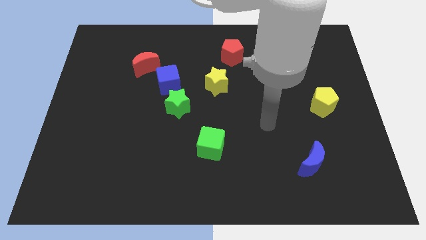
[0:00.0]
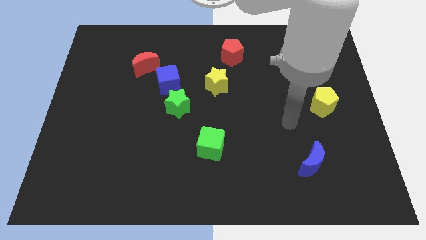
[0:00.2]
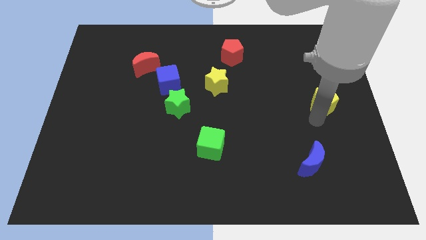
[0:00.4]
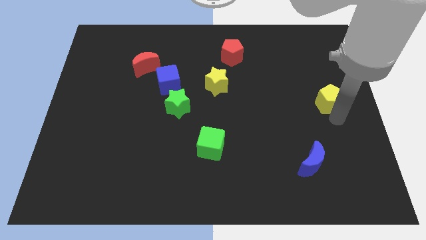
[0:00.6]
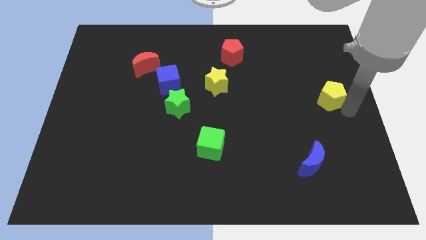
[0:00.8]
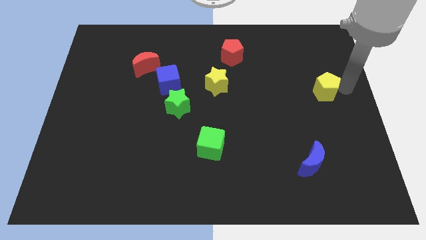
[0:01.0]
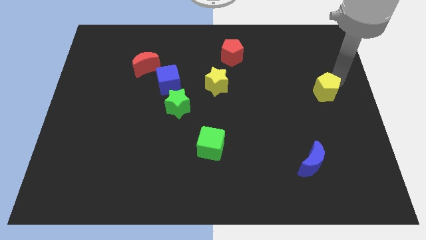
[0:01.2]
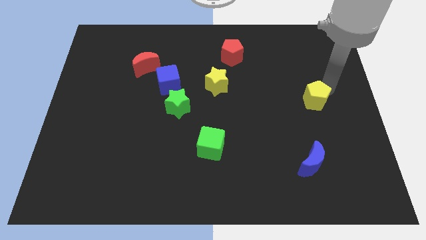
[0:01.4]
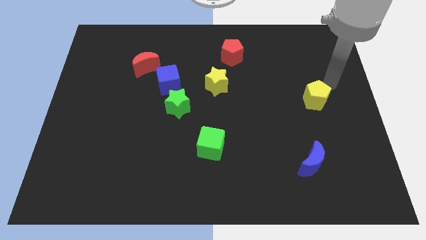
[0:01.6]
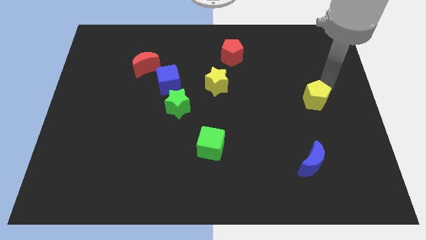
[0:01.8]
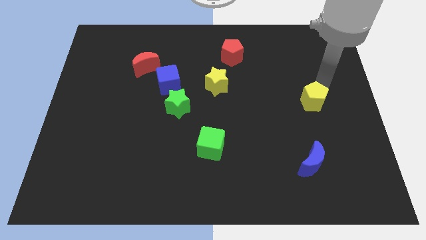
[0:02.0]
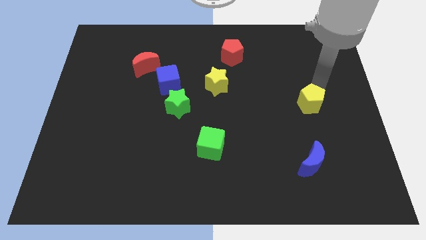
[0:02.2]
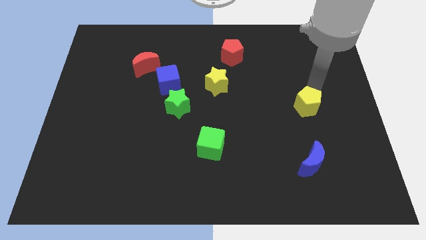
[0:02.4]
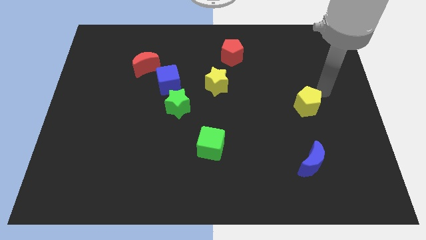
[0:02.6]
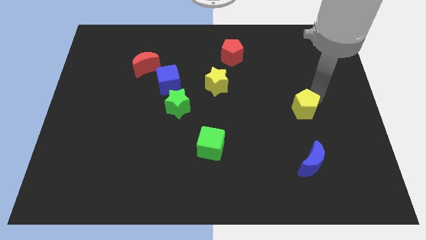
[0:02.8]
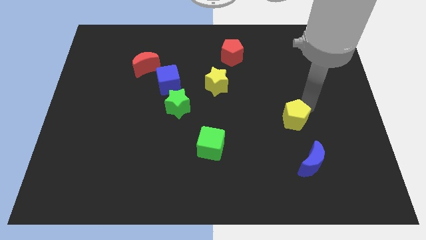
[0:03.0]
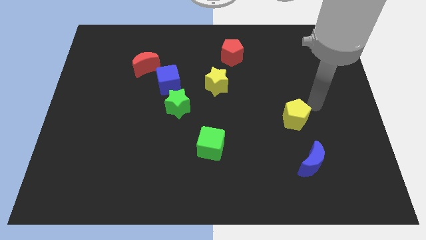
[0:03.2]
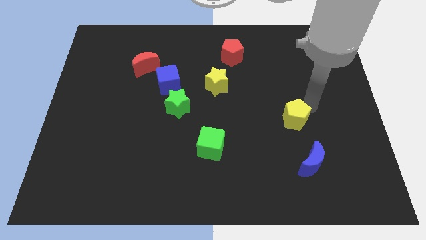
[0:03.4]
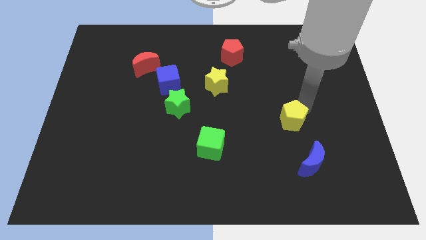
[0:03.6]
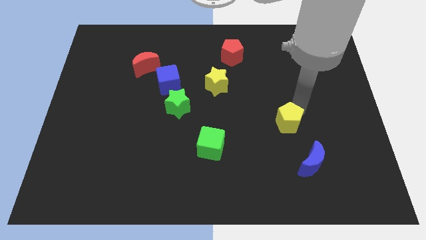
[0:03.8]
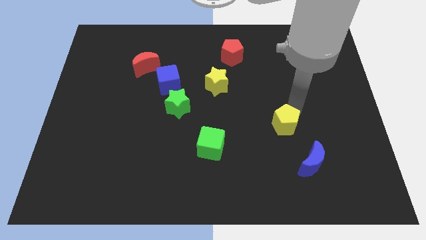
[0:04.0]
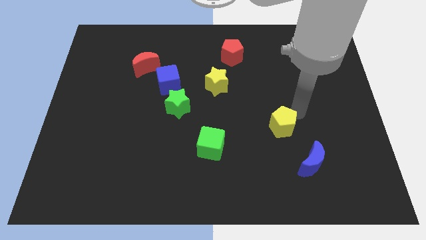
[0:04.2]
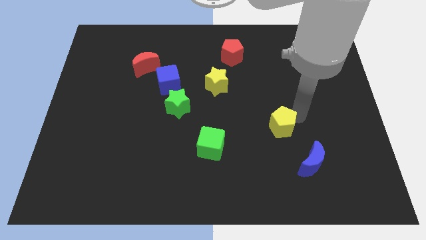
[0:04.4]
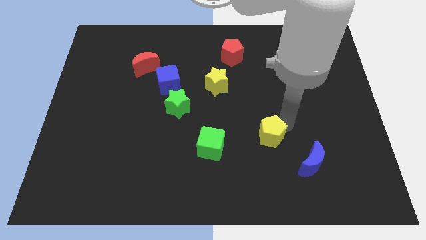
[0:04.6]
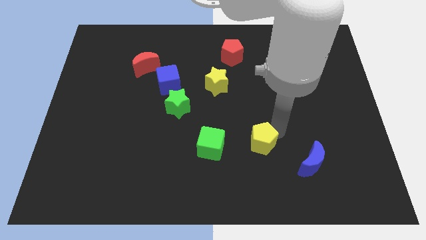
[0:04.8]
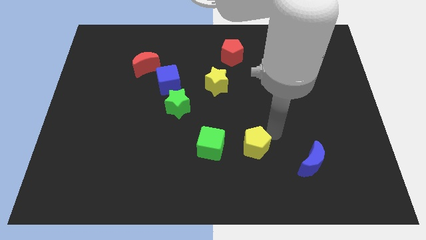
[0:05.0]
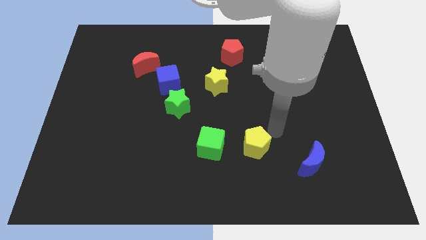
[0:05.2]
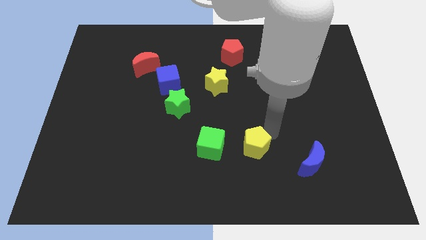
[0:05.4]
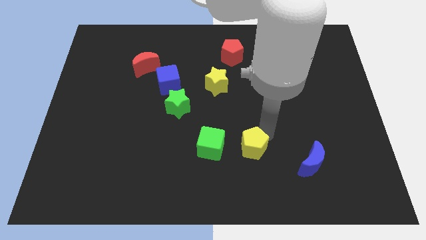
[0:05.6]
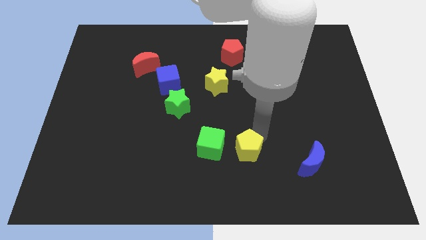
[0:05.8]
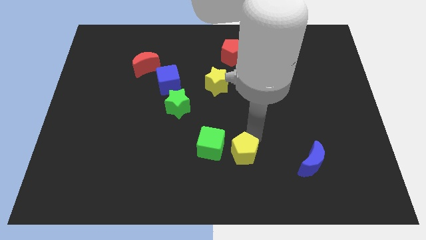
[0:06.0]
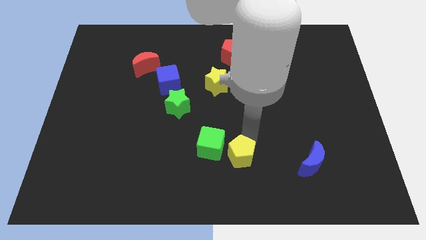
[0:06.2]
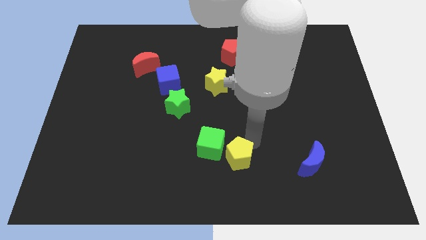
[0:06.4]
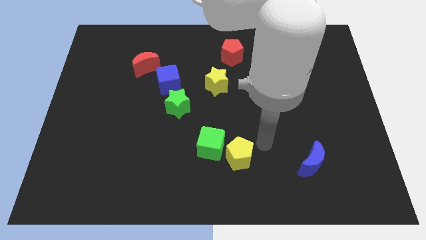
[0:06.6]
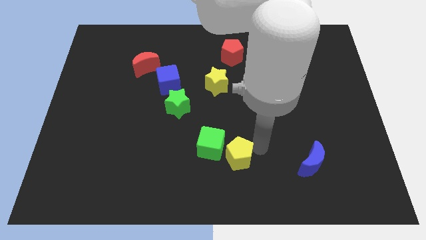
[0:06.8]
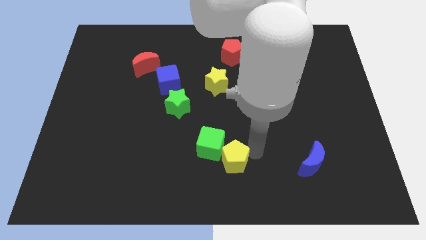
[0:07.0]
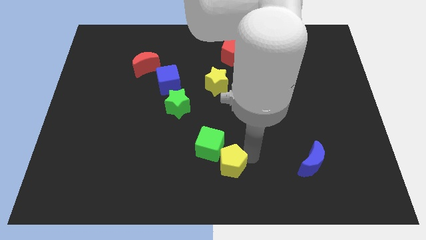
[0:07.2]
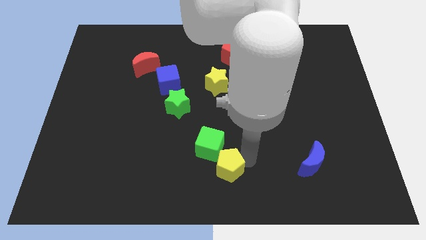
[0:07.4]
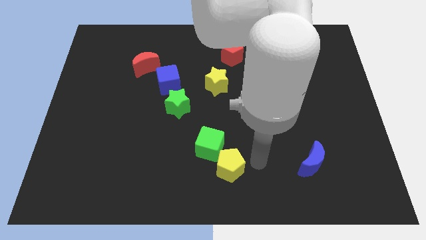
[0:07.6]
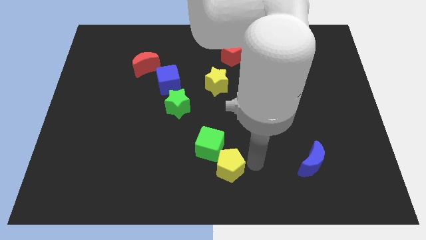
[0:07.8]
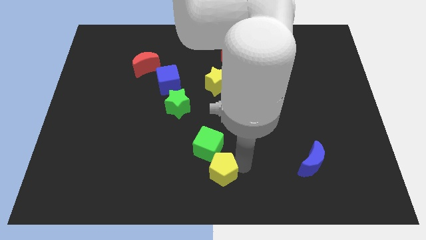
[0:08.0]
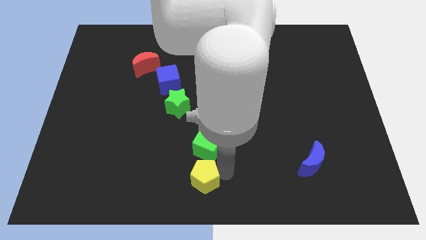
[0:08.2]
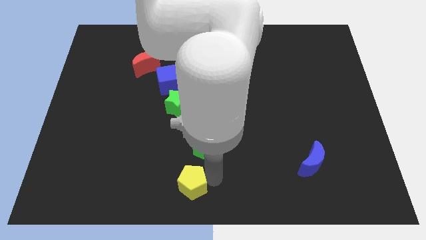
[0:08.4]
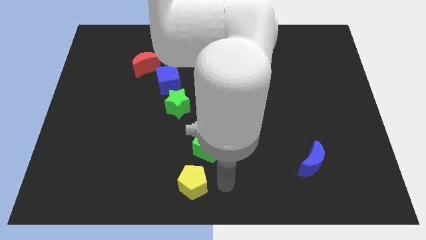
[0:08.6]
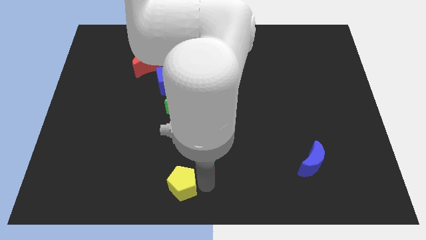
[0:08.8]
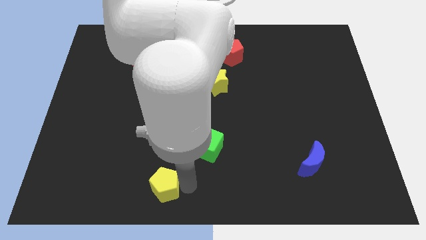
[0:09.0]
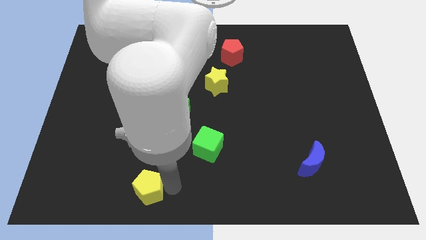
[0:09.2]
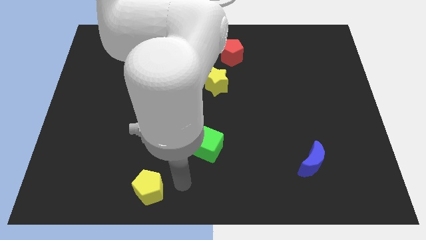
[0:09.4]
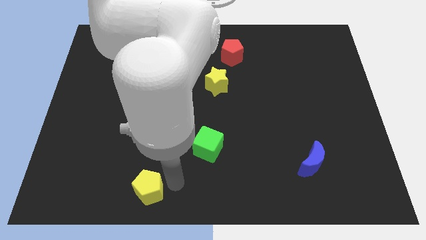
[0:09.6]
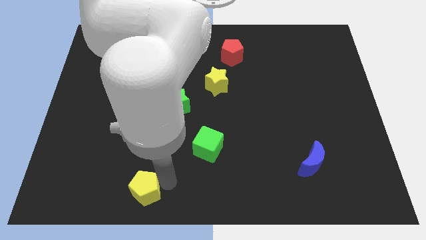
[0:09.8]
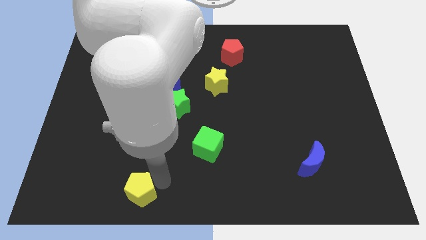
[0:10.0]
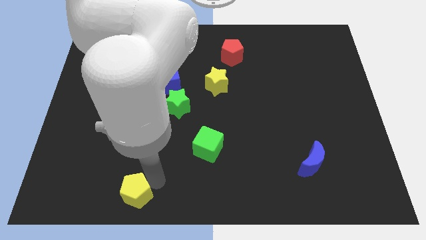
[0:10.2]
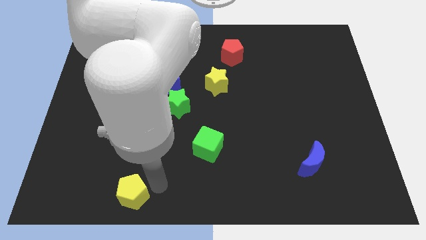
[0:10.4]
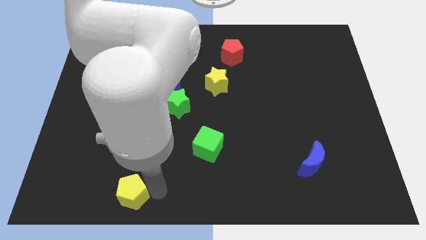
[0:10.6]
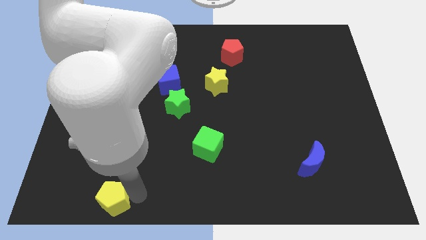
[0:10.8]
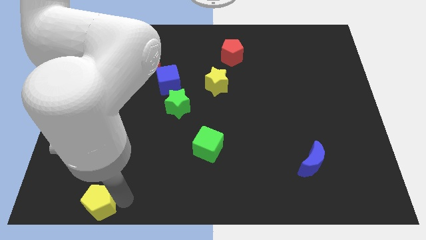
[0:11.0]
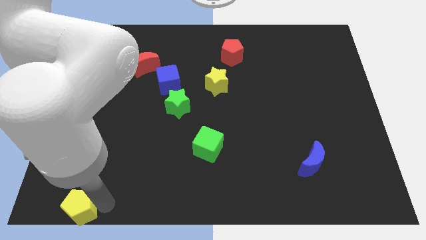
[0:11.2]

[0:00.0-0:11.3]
put the yellow pentagon to the lower left corner

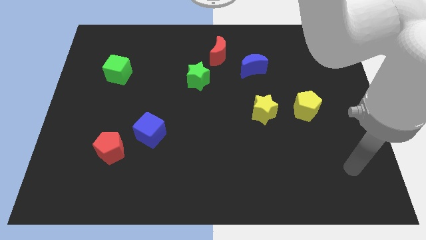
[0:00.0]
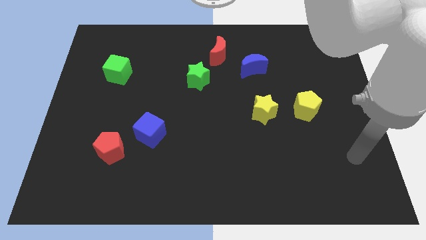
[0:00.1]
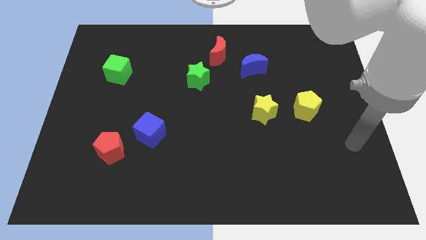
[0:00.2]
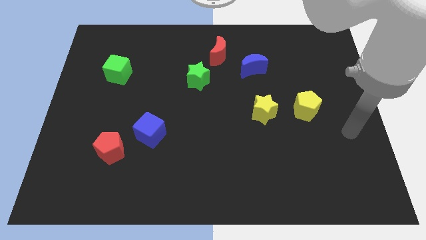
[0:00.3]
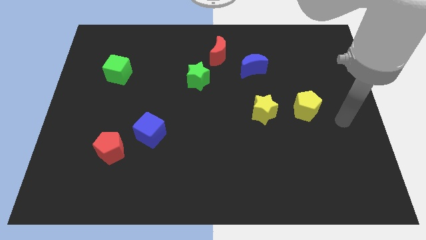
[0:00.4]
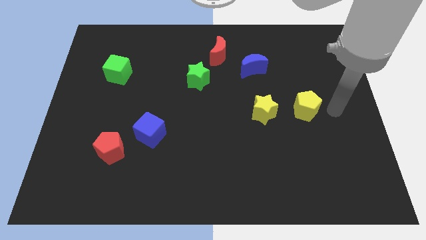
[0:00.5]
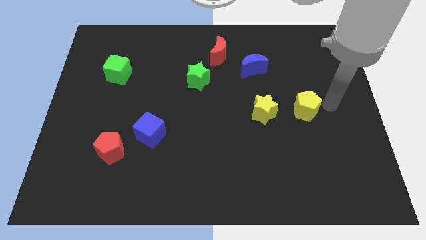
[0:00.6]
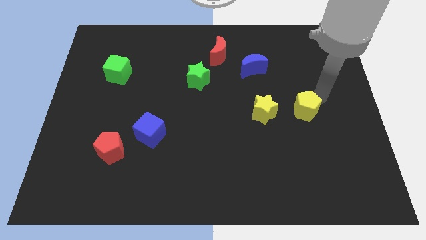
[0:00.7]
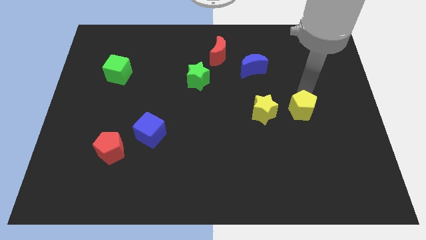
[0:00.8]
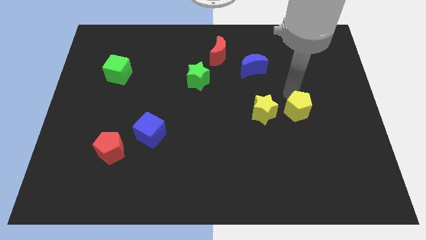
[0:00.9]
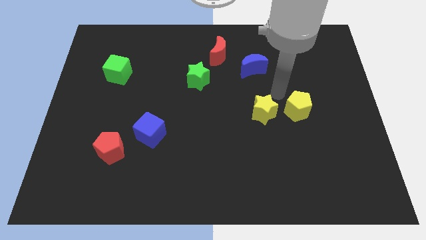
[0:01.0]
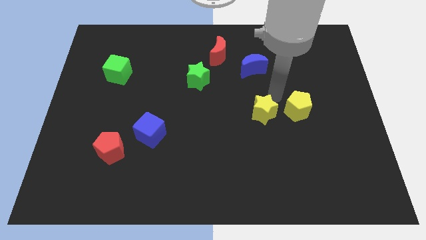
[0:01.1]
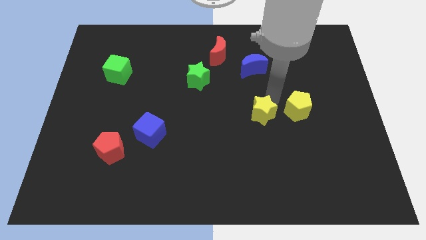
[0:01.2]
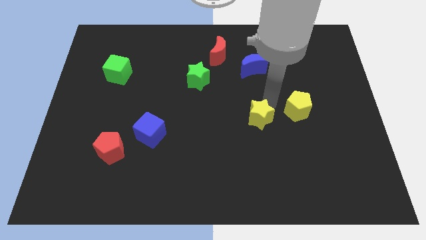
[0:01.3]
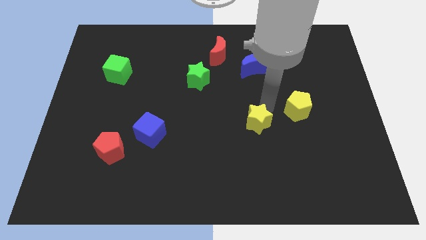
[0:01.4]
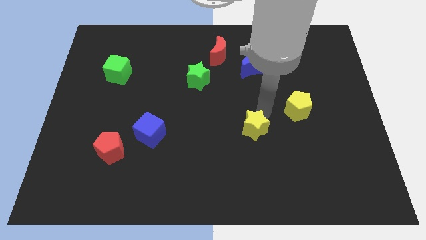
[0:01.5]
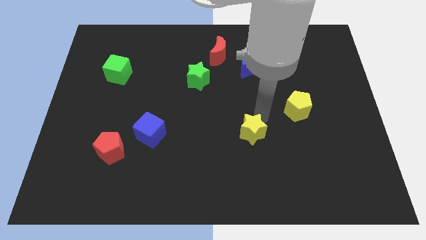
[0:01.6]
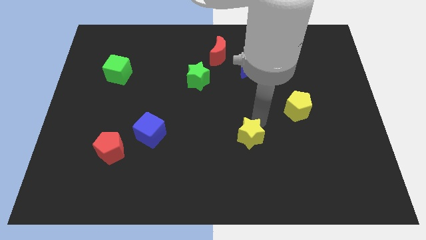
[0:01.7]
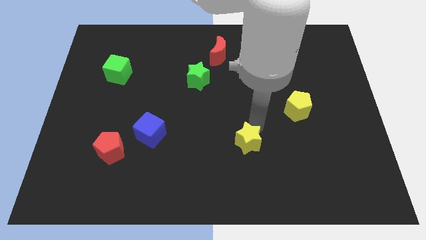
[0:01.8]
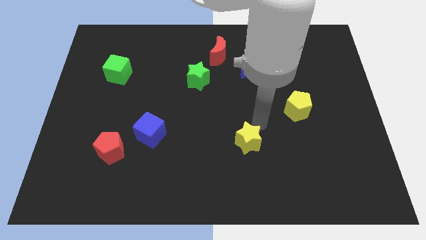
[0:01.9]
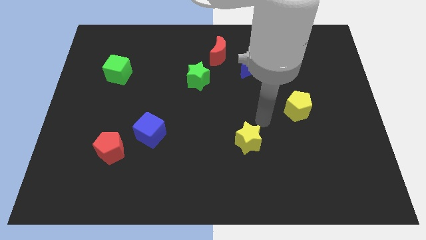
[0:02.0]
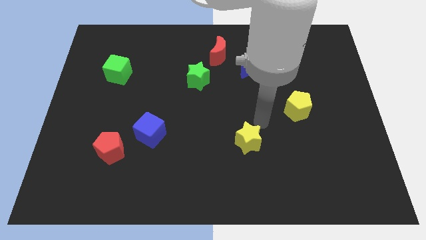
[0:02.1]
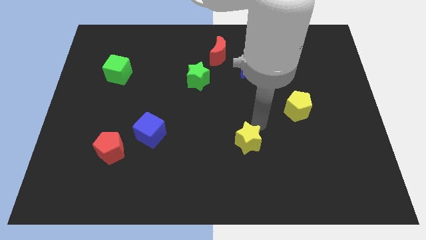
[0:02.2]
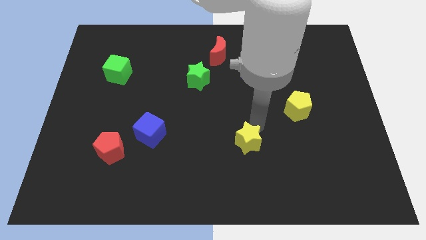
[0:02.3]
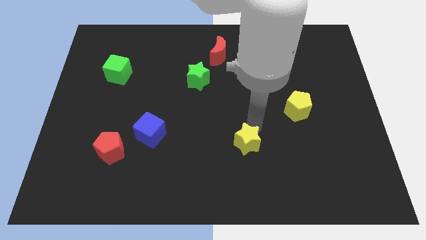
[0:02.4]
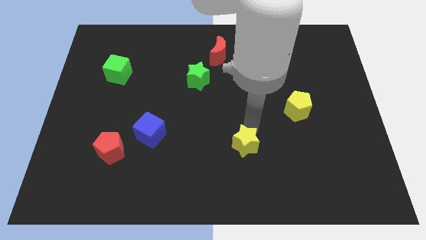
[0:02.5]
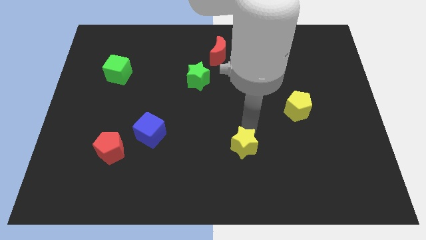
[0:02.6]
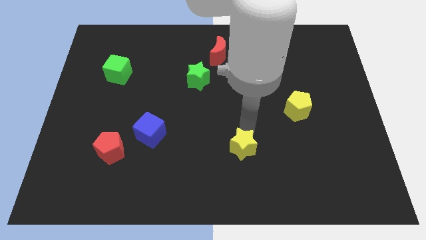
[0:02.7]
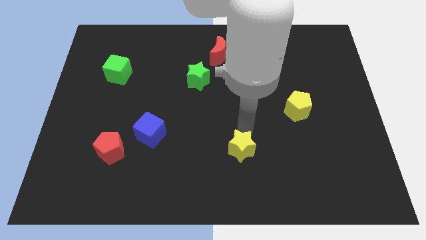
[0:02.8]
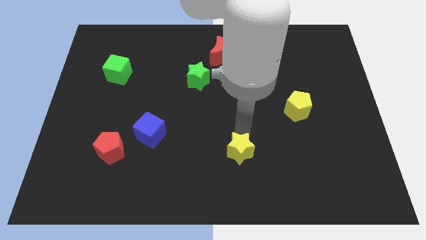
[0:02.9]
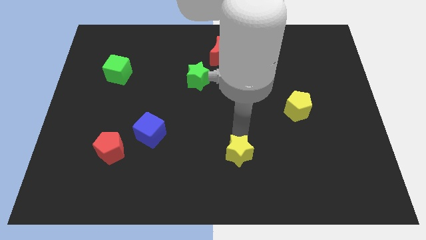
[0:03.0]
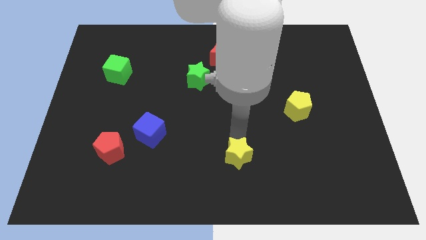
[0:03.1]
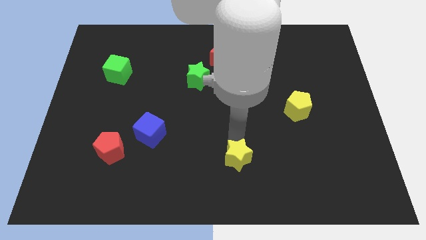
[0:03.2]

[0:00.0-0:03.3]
push the yellow star to the bottom
